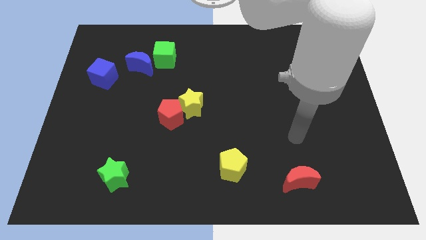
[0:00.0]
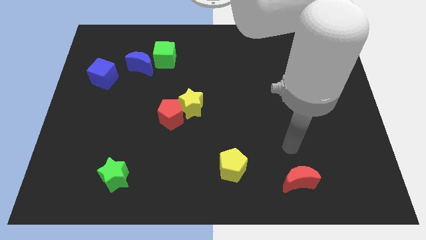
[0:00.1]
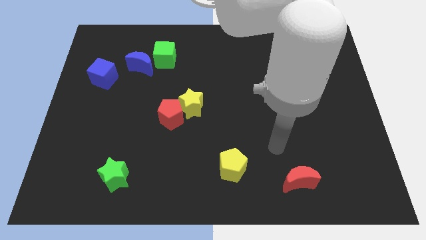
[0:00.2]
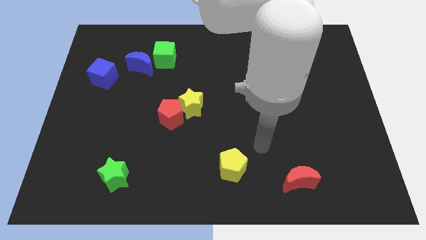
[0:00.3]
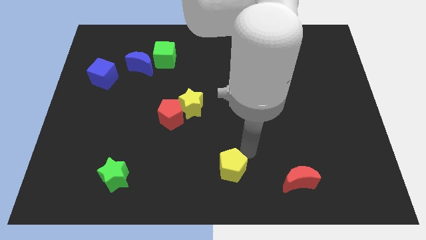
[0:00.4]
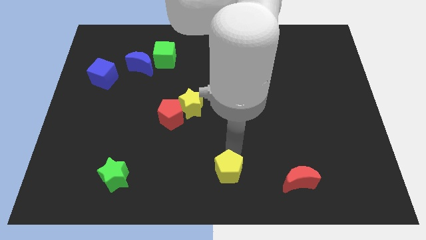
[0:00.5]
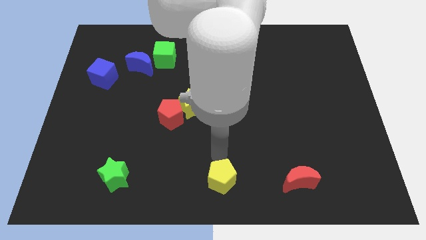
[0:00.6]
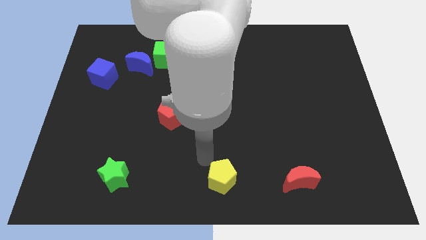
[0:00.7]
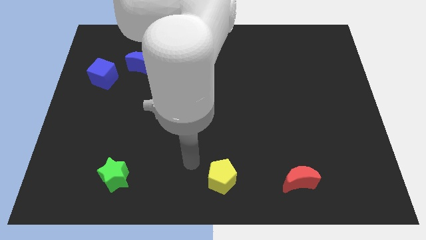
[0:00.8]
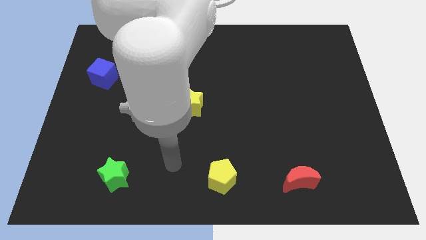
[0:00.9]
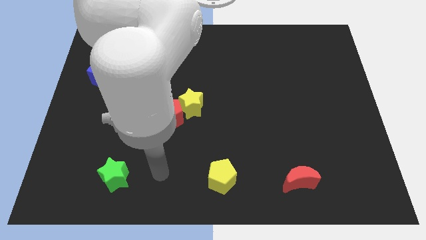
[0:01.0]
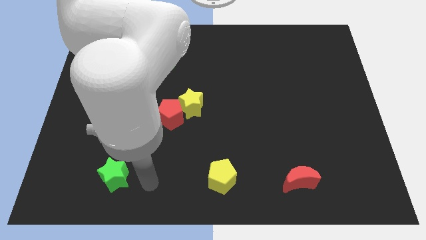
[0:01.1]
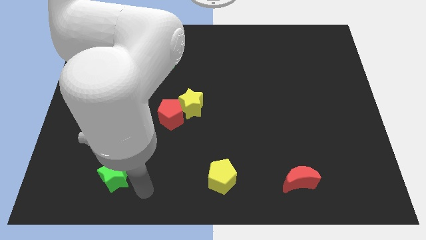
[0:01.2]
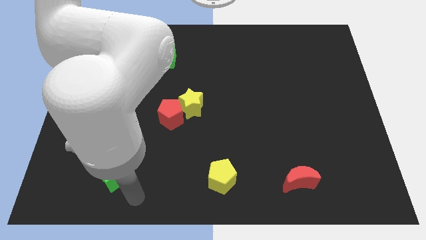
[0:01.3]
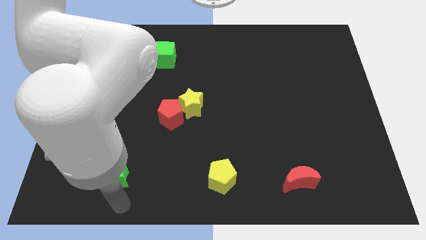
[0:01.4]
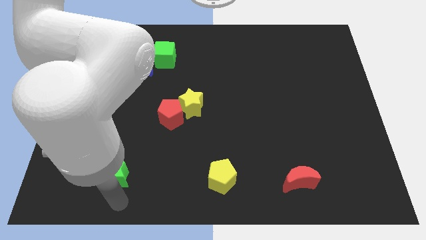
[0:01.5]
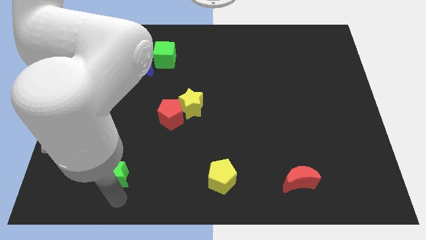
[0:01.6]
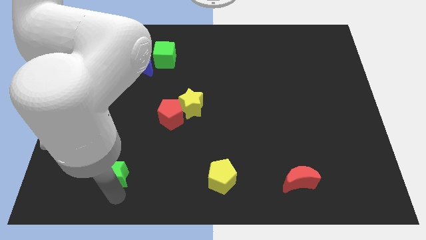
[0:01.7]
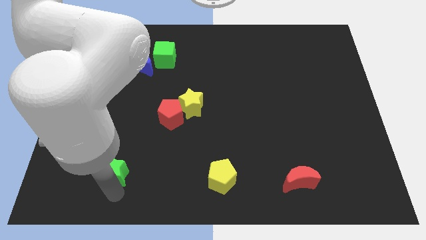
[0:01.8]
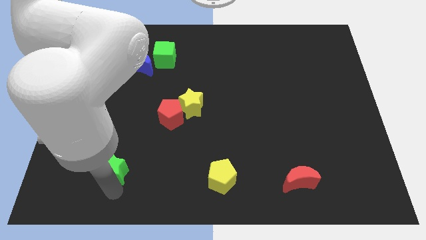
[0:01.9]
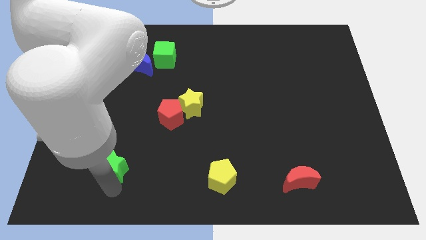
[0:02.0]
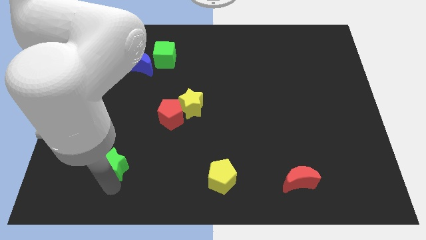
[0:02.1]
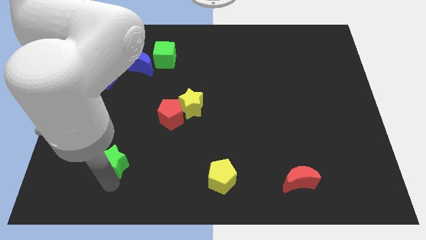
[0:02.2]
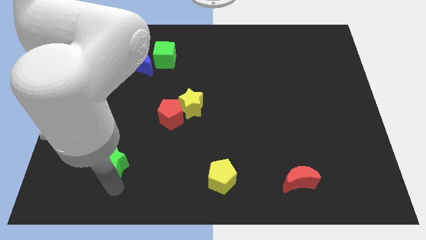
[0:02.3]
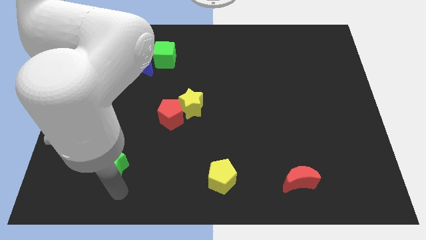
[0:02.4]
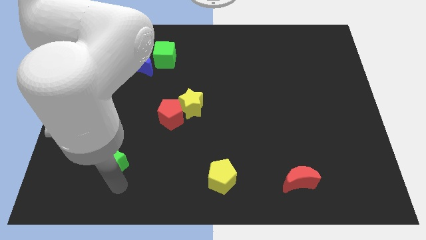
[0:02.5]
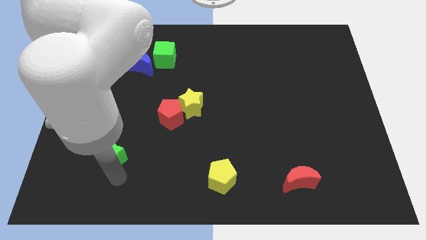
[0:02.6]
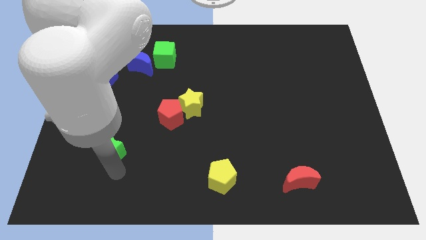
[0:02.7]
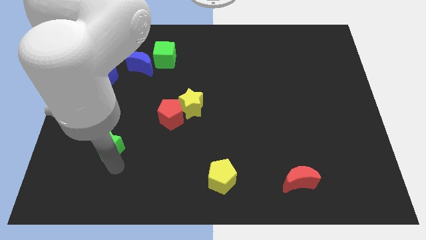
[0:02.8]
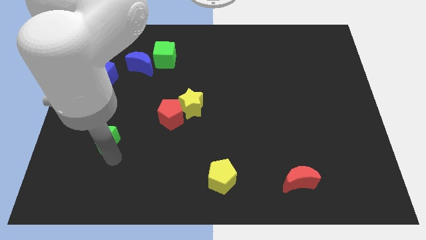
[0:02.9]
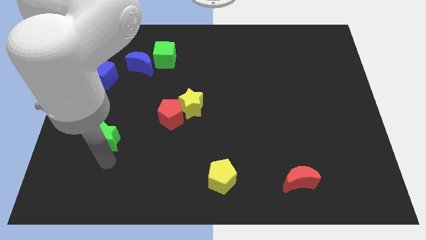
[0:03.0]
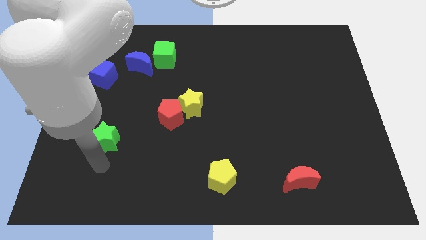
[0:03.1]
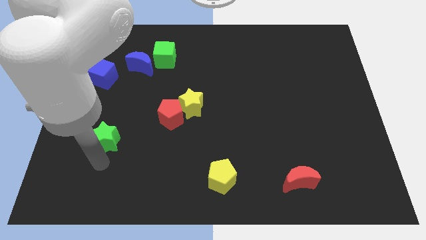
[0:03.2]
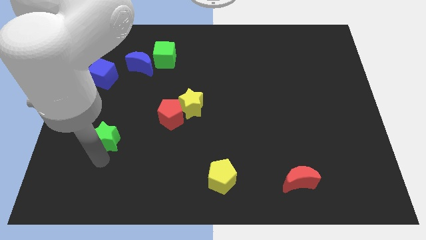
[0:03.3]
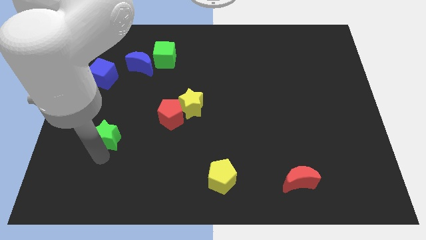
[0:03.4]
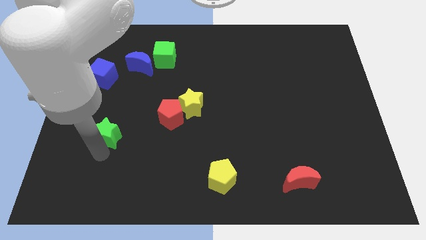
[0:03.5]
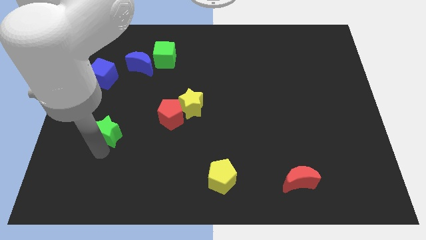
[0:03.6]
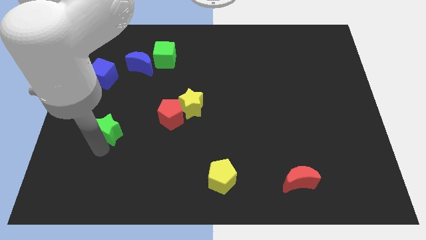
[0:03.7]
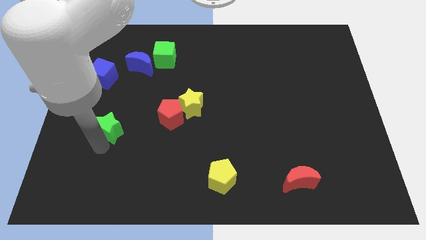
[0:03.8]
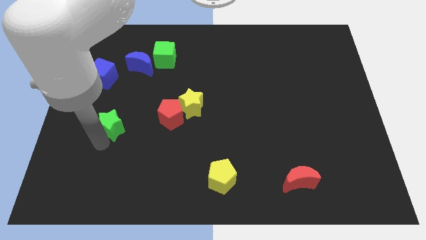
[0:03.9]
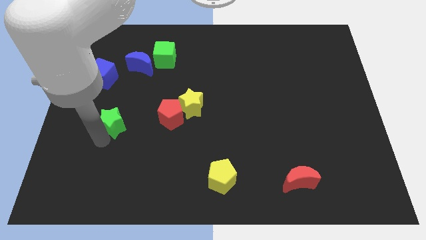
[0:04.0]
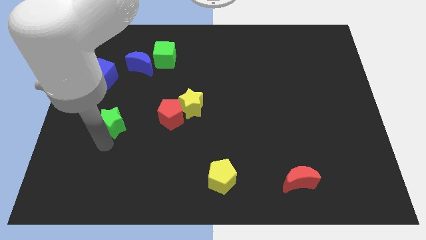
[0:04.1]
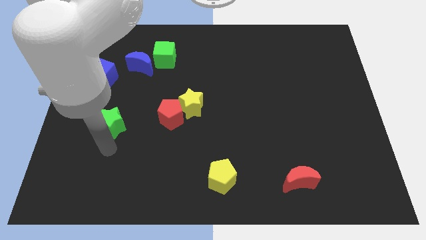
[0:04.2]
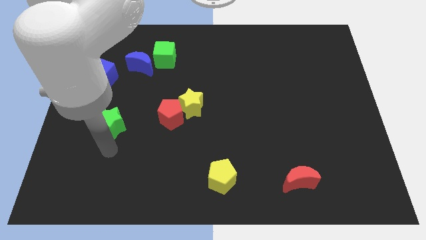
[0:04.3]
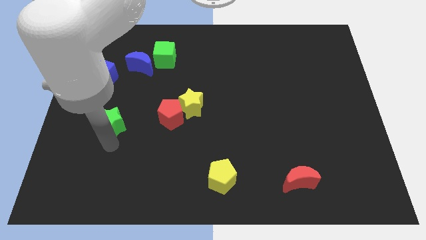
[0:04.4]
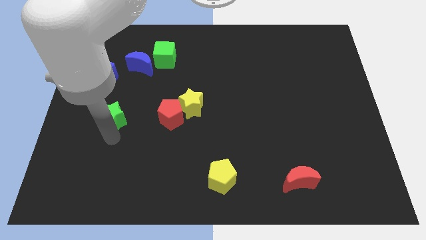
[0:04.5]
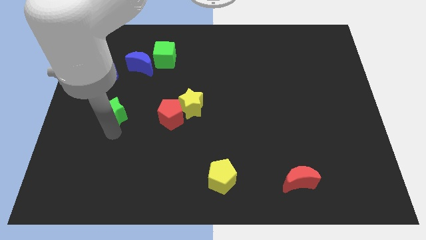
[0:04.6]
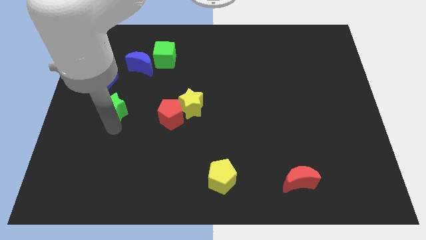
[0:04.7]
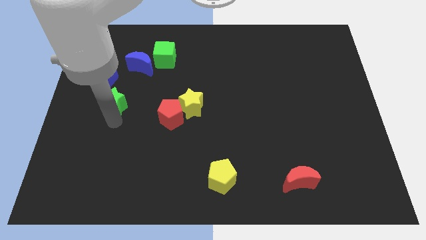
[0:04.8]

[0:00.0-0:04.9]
put the green star to the bottom right of the blue cube

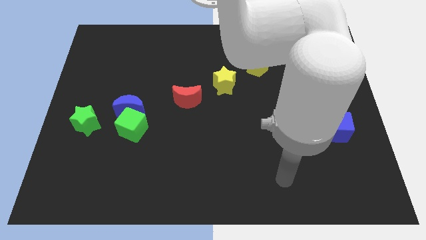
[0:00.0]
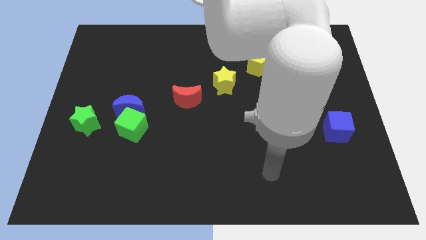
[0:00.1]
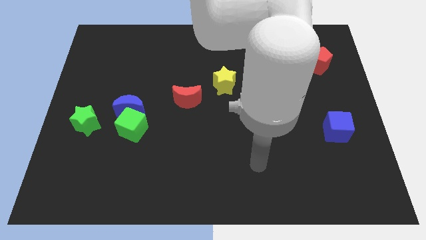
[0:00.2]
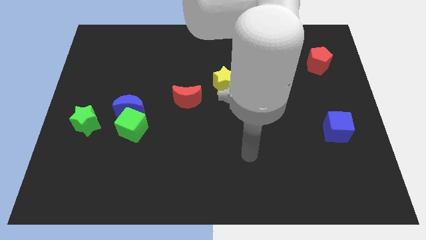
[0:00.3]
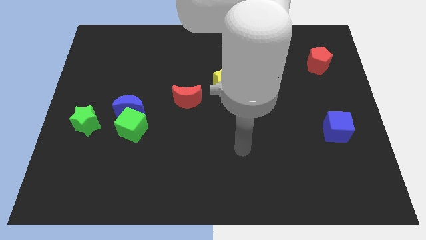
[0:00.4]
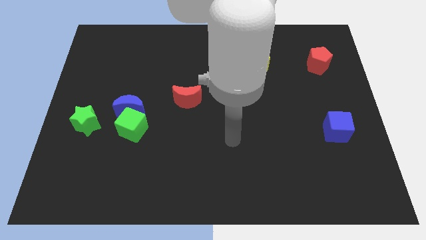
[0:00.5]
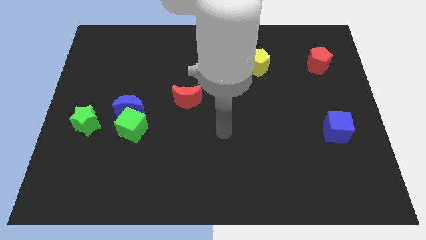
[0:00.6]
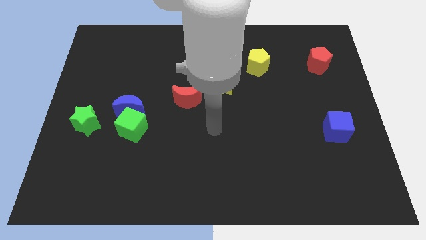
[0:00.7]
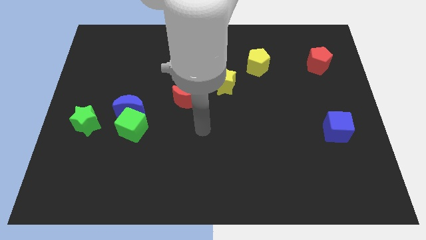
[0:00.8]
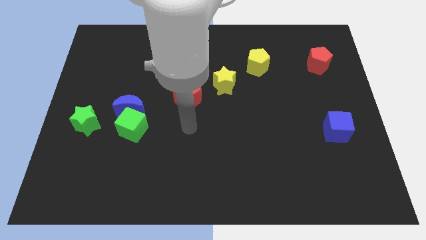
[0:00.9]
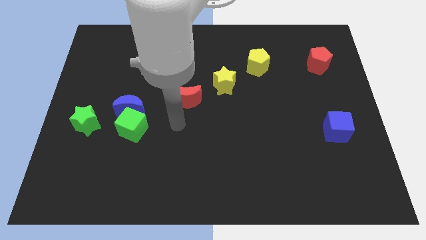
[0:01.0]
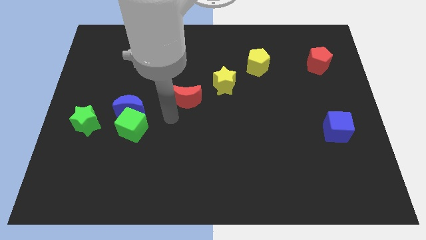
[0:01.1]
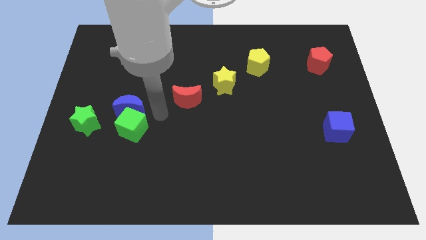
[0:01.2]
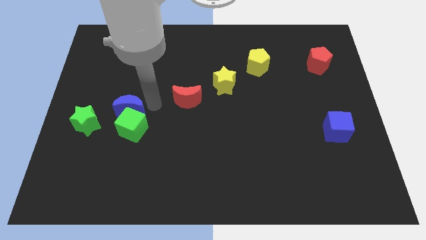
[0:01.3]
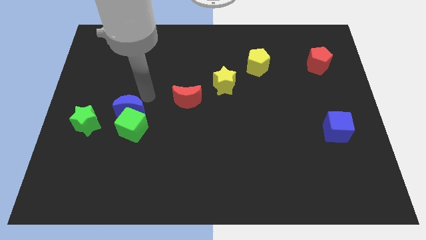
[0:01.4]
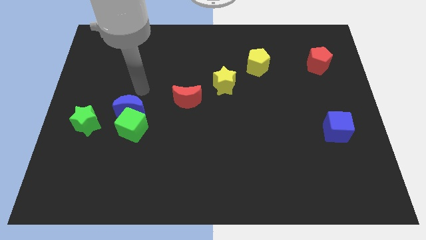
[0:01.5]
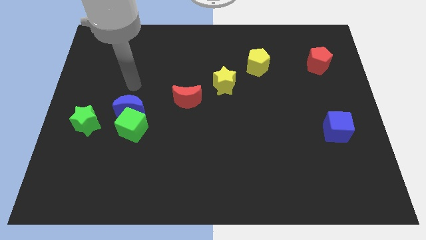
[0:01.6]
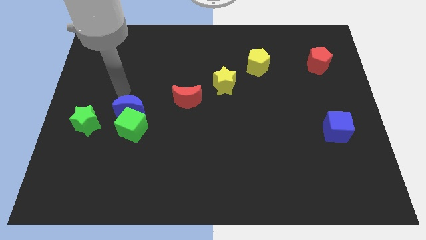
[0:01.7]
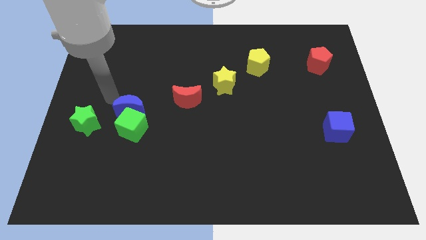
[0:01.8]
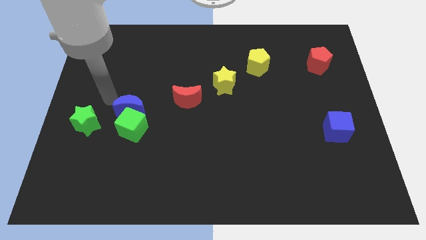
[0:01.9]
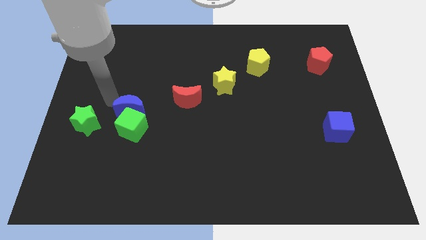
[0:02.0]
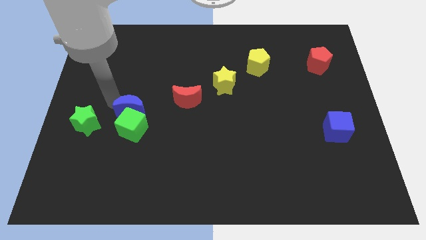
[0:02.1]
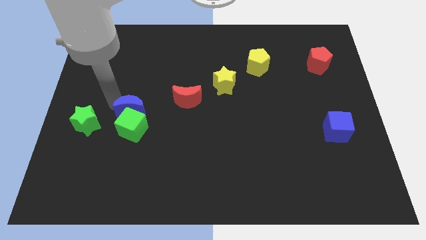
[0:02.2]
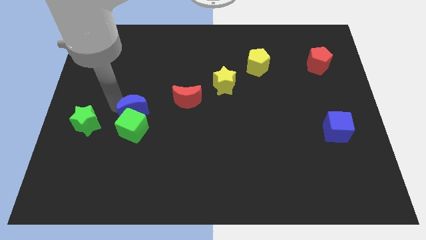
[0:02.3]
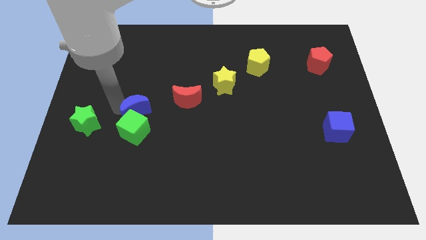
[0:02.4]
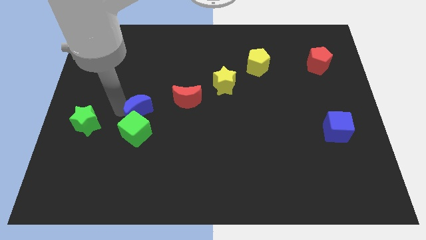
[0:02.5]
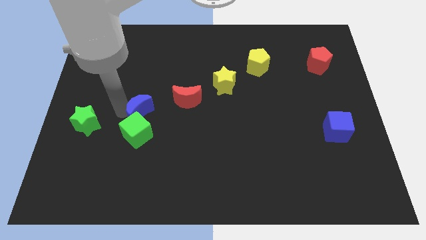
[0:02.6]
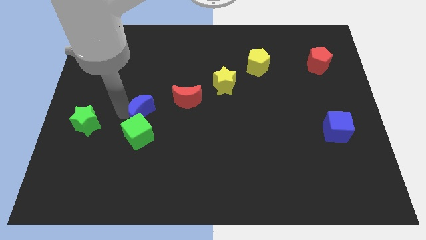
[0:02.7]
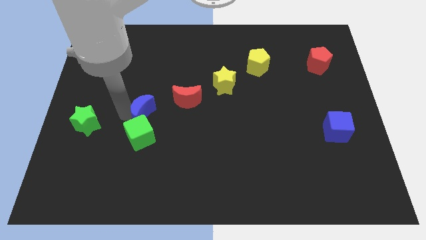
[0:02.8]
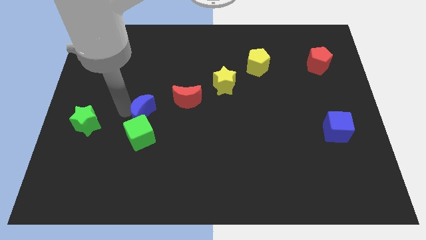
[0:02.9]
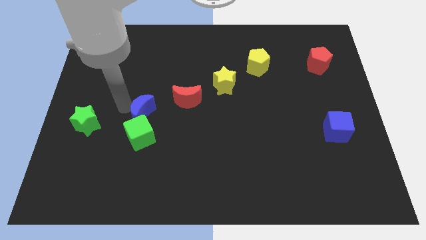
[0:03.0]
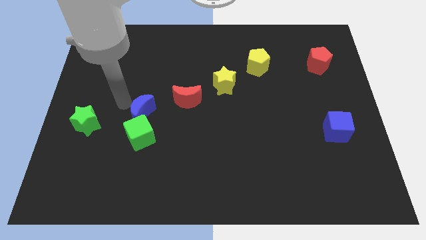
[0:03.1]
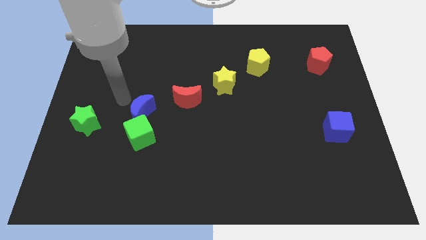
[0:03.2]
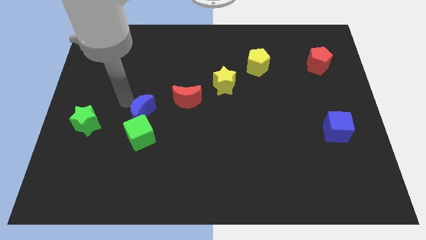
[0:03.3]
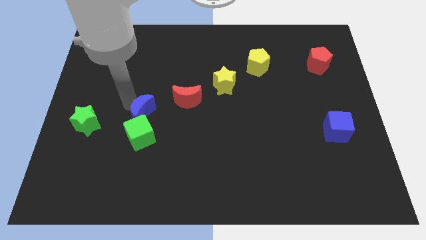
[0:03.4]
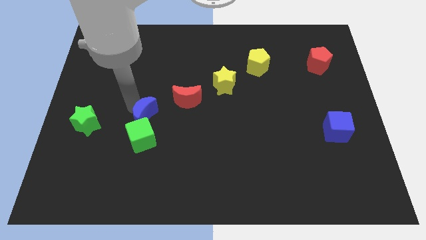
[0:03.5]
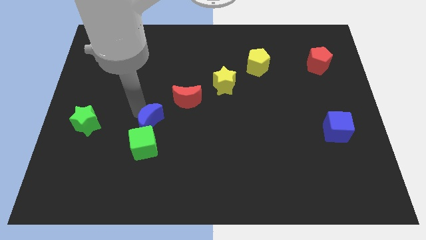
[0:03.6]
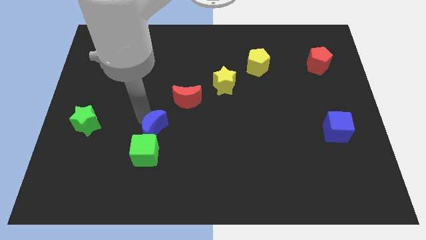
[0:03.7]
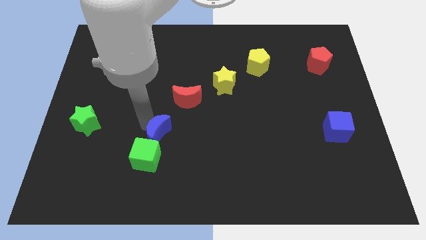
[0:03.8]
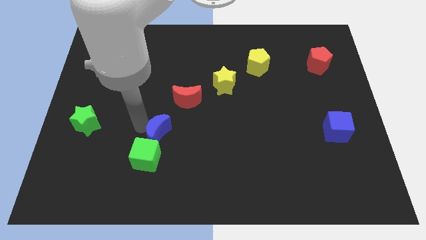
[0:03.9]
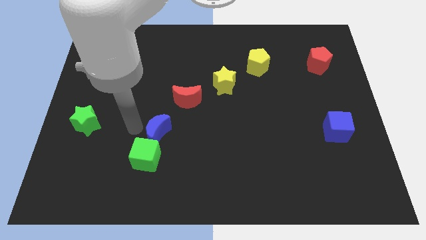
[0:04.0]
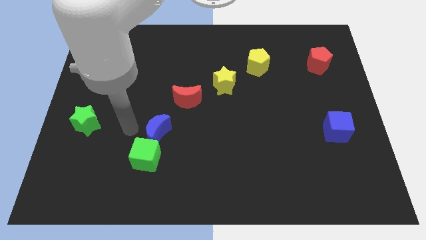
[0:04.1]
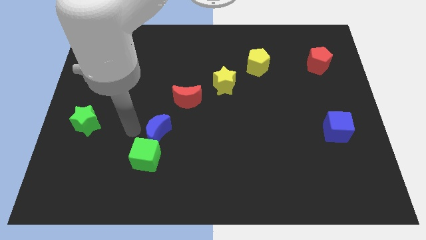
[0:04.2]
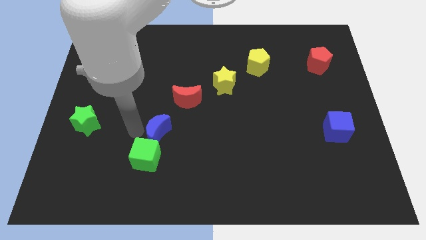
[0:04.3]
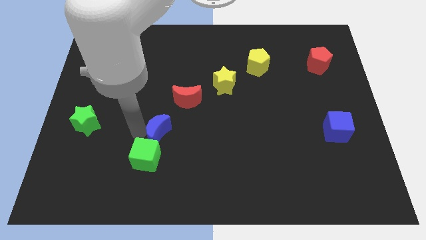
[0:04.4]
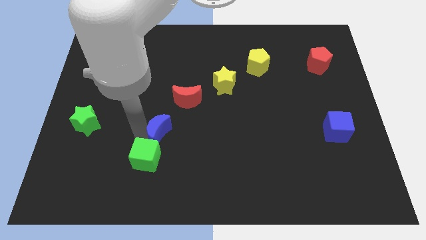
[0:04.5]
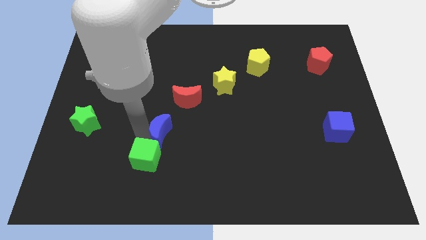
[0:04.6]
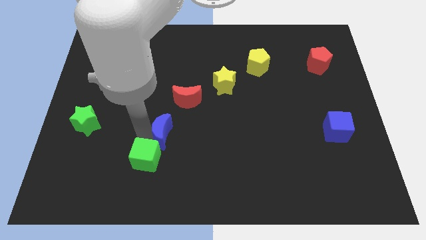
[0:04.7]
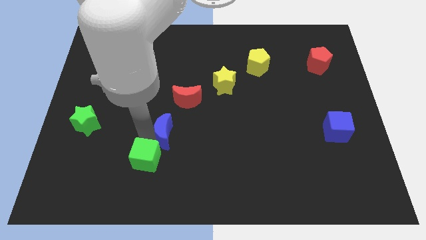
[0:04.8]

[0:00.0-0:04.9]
put the blue moon to the bottom side of the red moon
